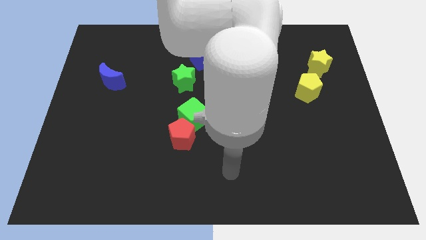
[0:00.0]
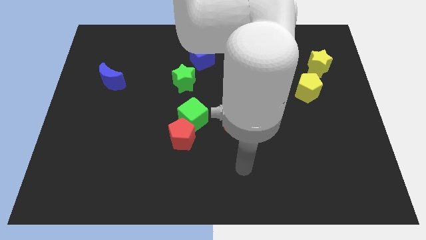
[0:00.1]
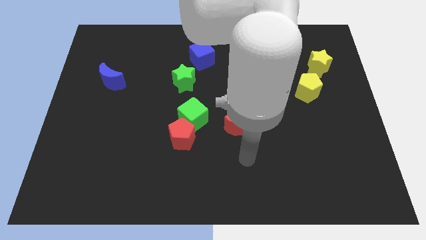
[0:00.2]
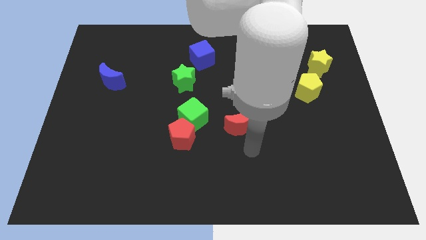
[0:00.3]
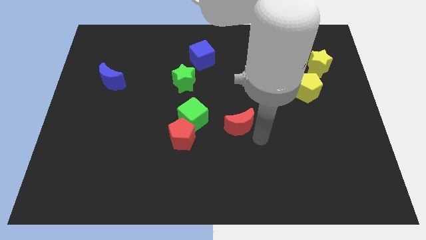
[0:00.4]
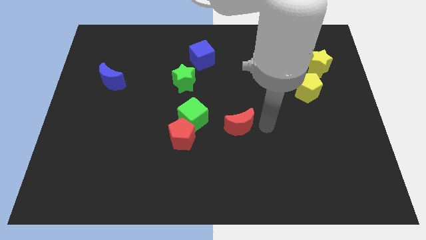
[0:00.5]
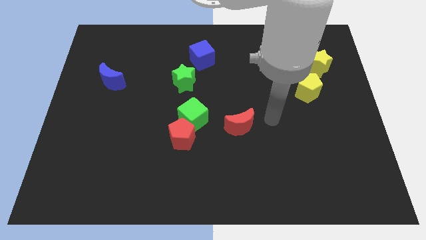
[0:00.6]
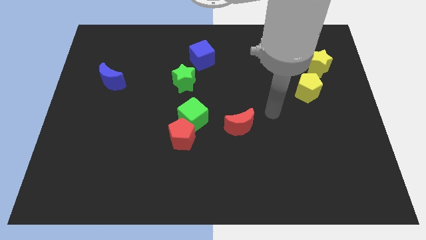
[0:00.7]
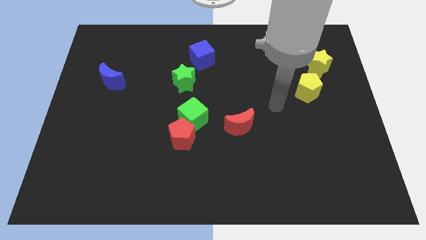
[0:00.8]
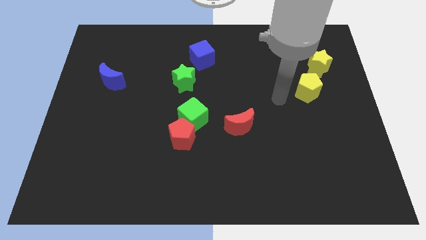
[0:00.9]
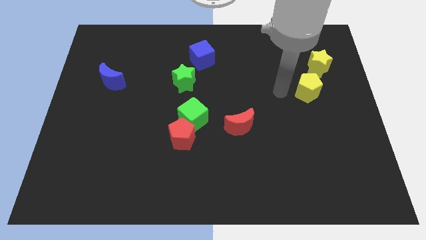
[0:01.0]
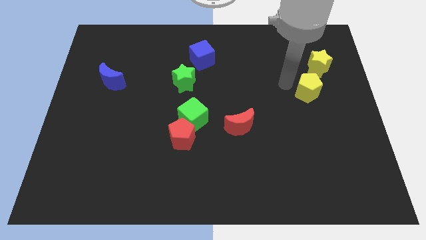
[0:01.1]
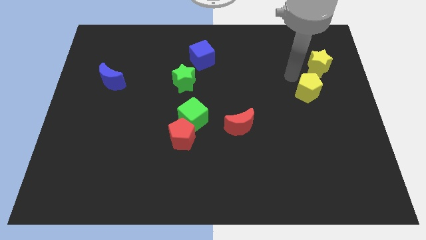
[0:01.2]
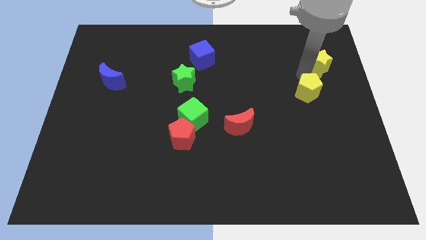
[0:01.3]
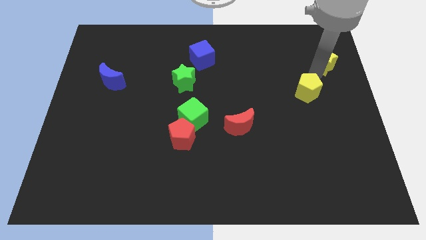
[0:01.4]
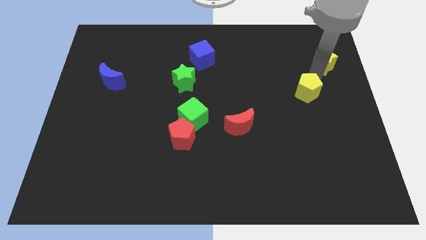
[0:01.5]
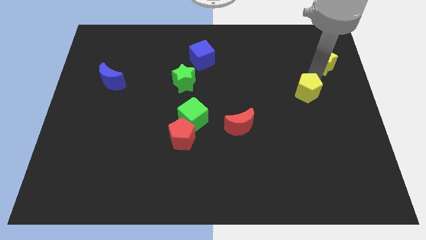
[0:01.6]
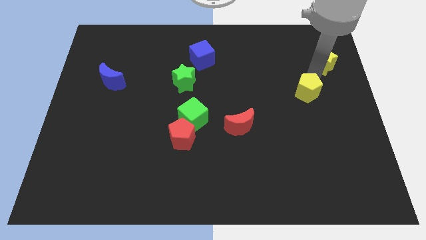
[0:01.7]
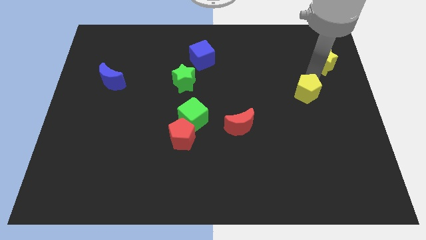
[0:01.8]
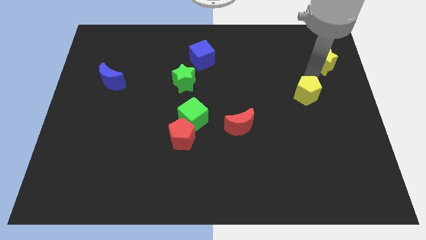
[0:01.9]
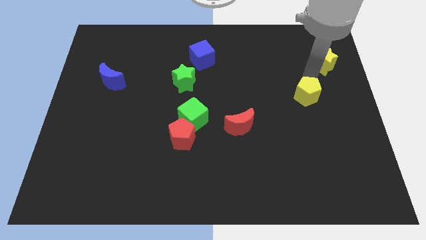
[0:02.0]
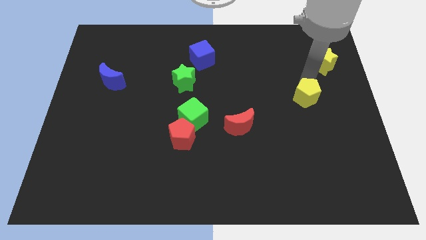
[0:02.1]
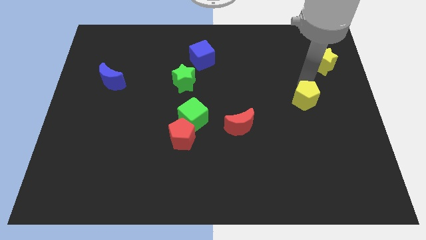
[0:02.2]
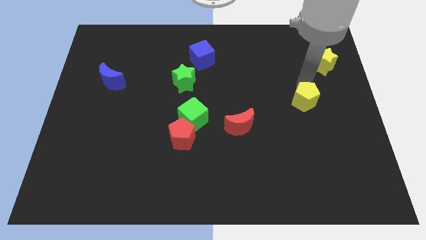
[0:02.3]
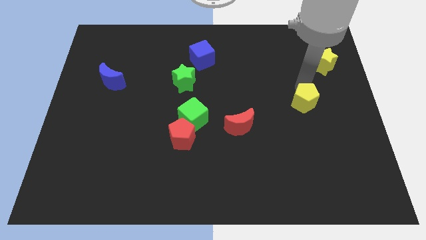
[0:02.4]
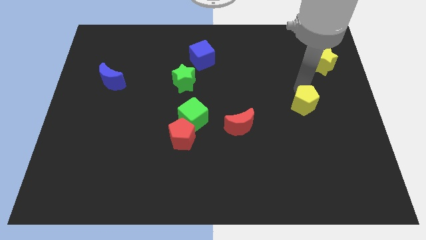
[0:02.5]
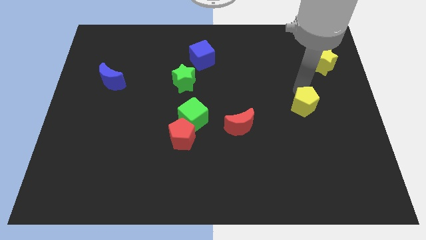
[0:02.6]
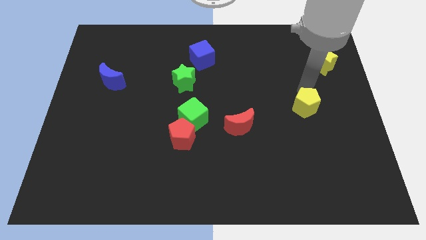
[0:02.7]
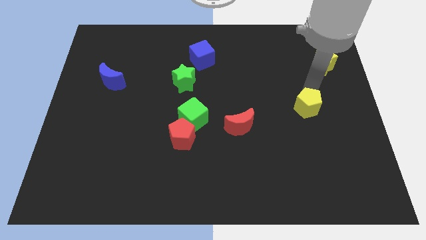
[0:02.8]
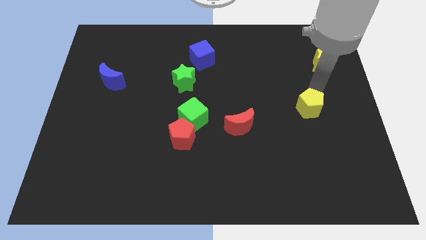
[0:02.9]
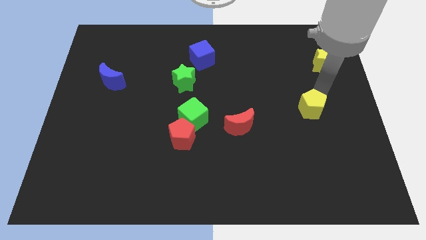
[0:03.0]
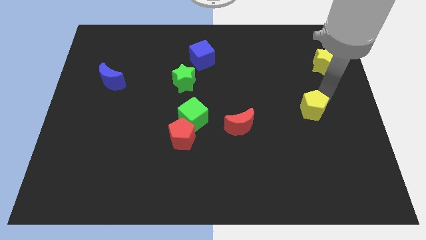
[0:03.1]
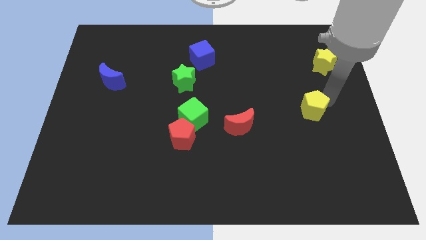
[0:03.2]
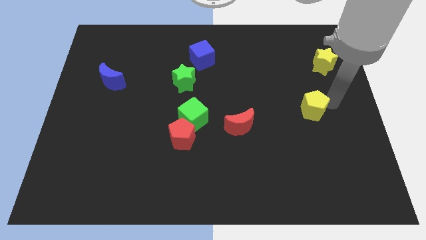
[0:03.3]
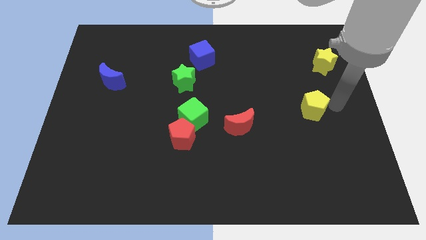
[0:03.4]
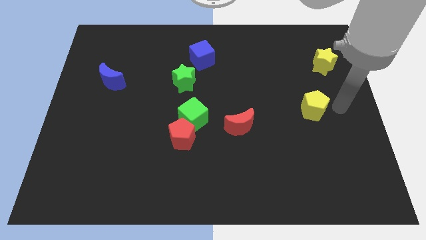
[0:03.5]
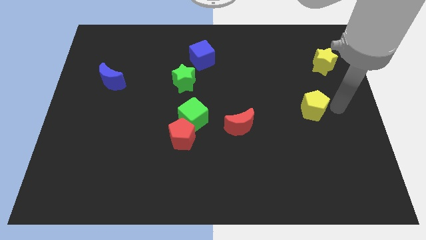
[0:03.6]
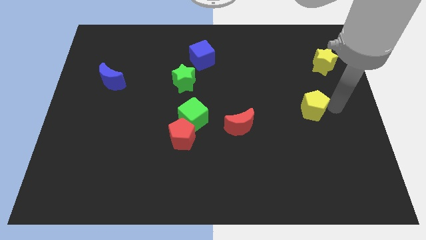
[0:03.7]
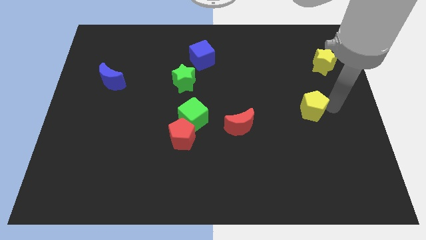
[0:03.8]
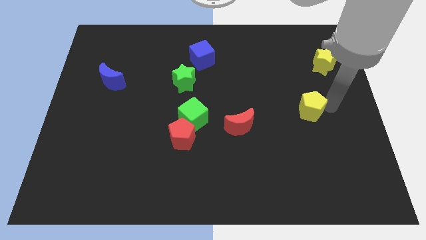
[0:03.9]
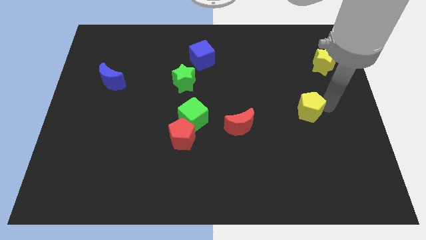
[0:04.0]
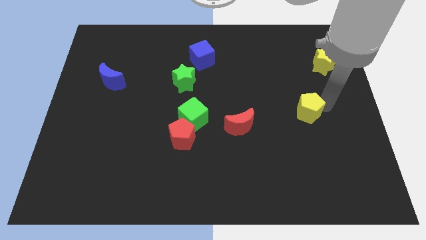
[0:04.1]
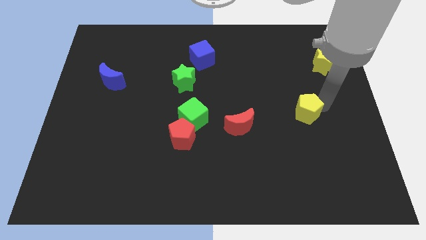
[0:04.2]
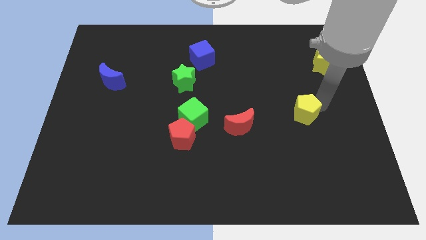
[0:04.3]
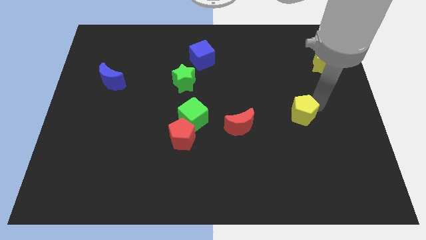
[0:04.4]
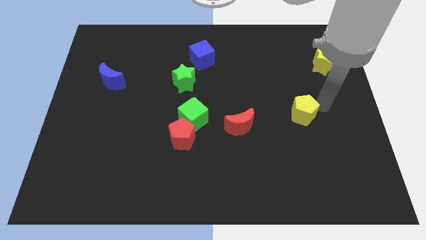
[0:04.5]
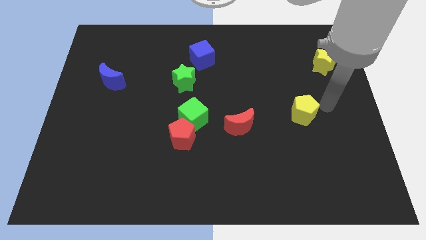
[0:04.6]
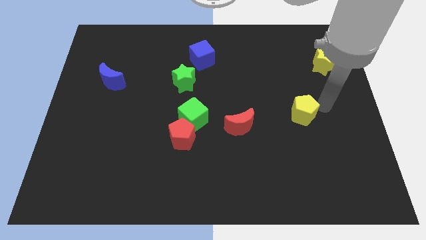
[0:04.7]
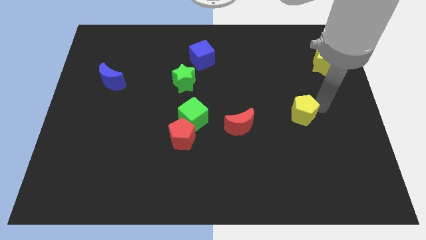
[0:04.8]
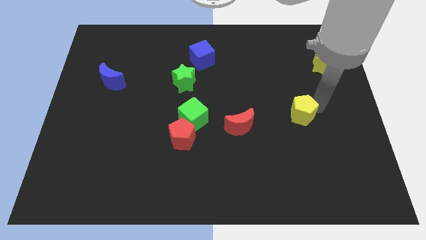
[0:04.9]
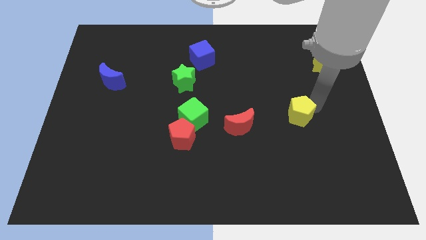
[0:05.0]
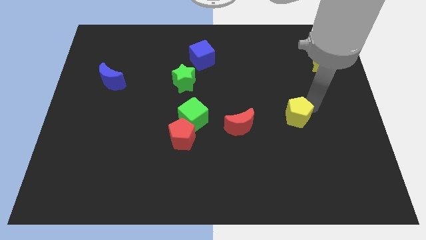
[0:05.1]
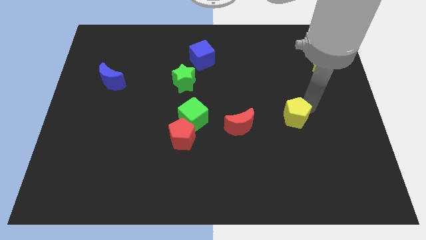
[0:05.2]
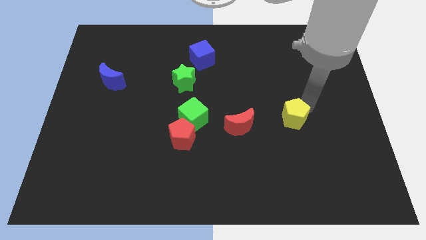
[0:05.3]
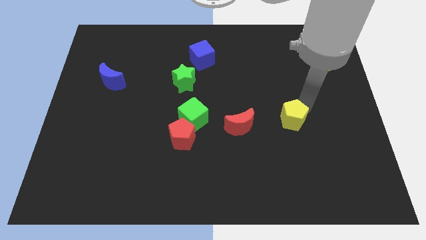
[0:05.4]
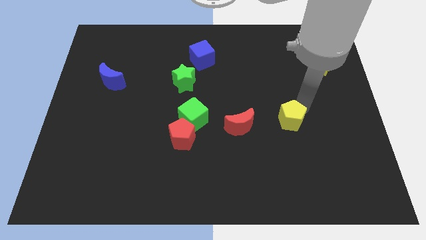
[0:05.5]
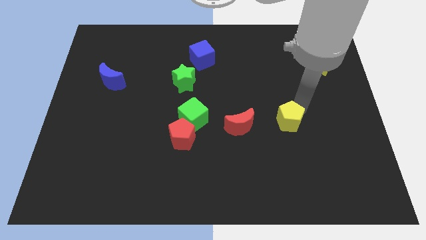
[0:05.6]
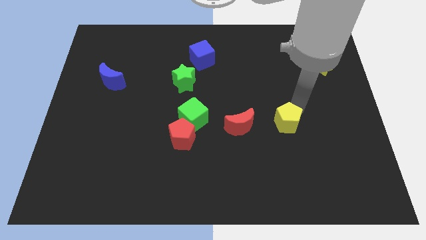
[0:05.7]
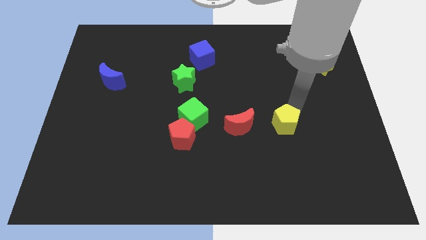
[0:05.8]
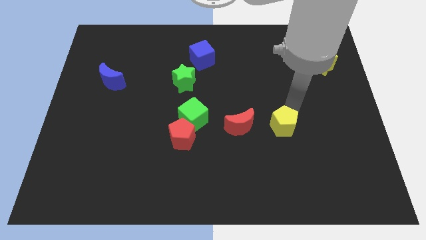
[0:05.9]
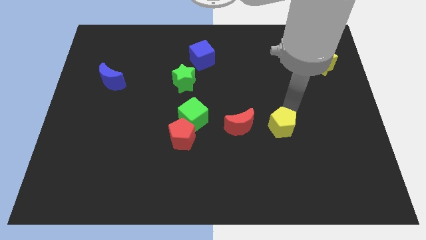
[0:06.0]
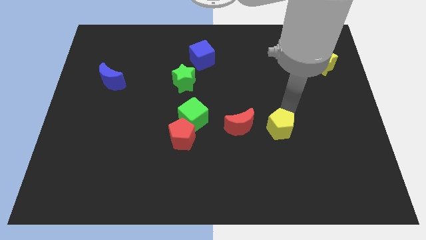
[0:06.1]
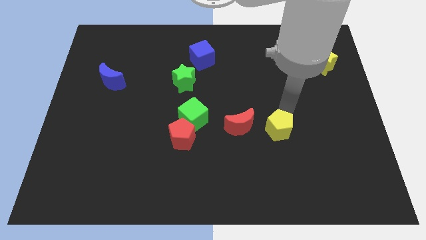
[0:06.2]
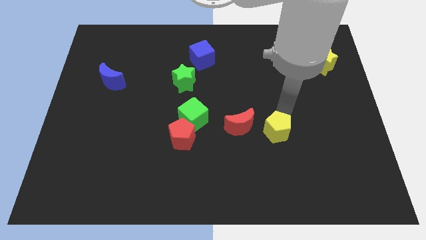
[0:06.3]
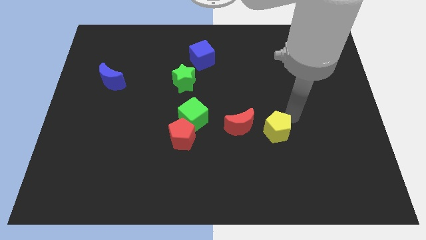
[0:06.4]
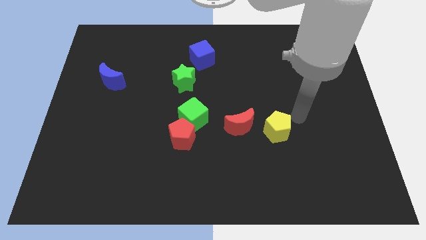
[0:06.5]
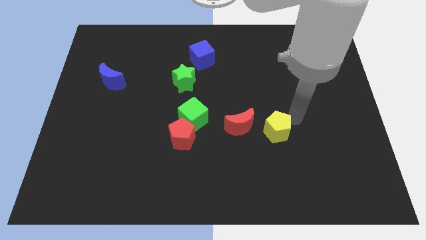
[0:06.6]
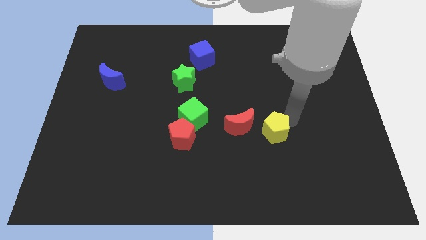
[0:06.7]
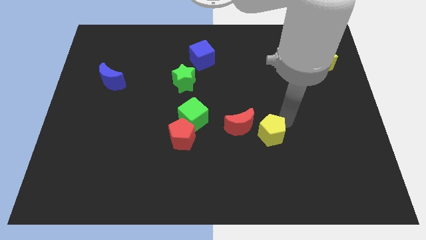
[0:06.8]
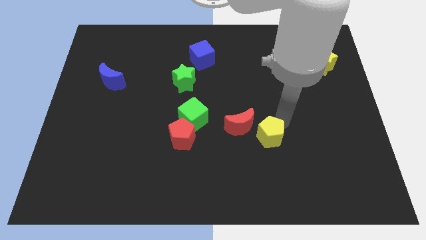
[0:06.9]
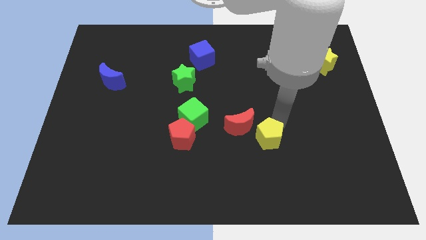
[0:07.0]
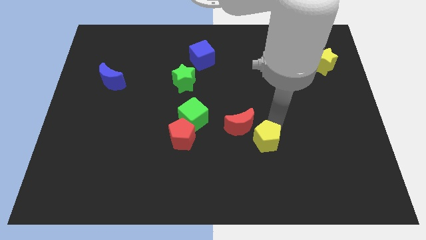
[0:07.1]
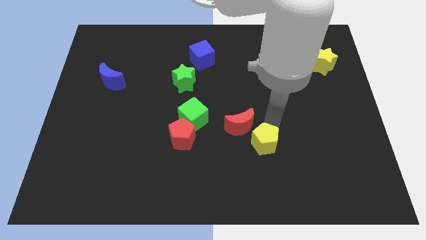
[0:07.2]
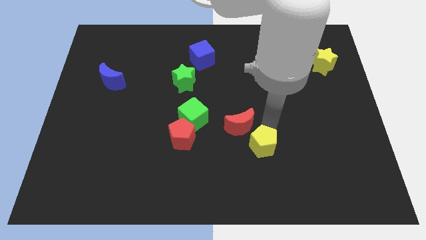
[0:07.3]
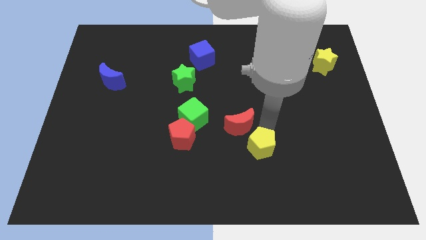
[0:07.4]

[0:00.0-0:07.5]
move the yellow pentagon down and then left

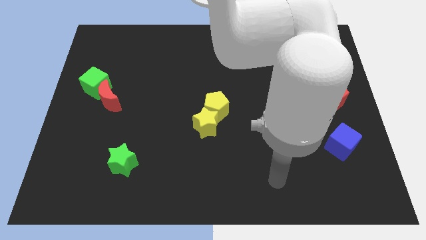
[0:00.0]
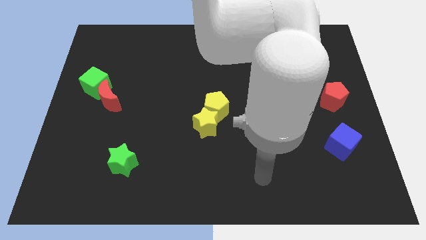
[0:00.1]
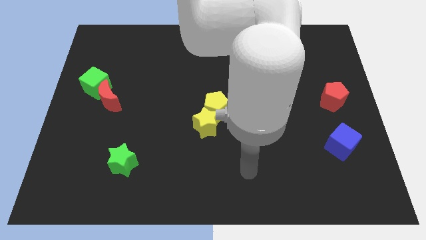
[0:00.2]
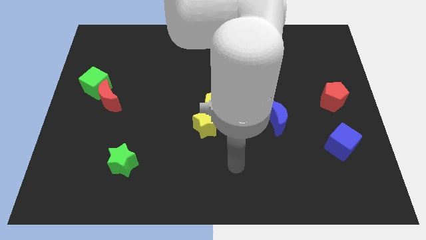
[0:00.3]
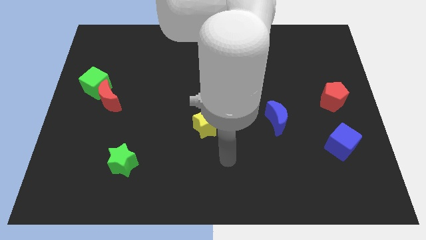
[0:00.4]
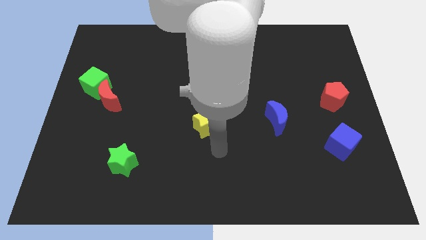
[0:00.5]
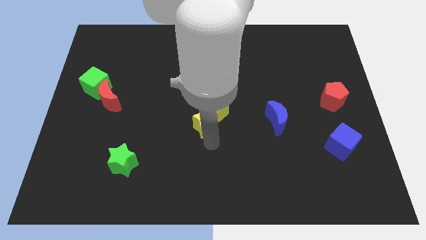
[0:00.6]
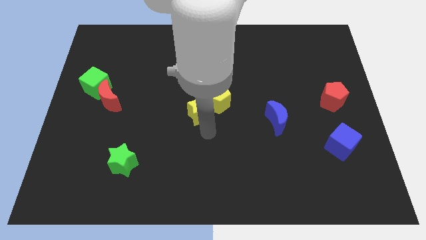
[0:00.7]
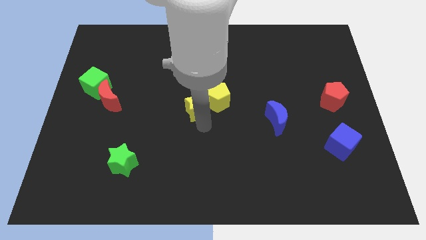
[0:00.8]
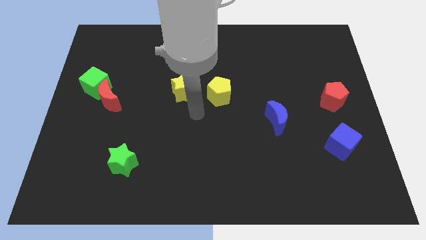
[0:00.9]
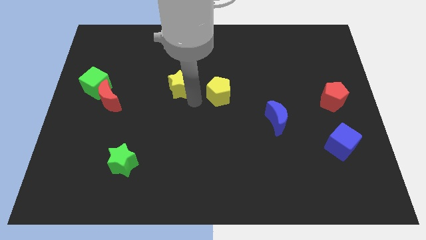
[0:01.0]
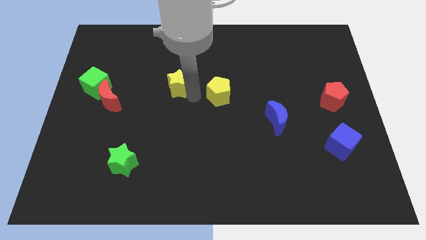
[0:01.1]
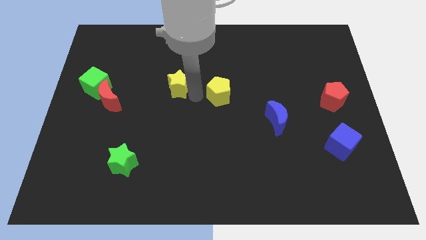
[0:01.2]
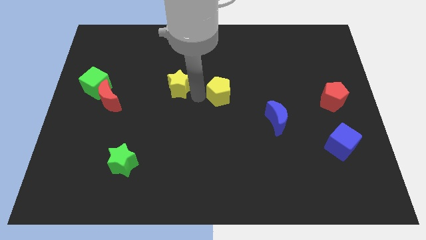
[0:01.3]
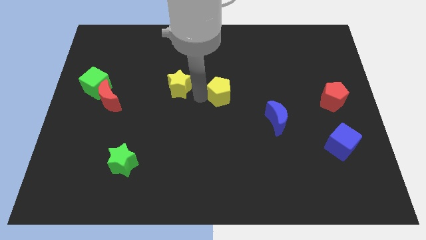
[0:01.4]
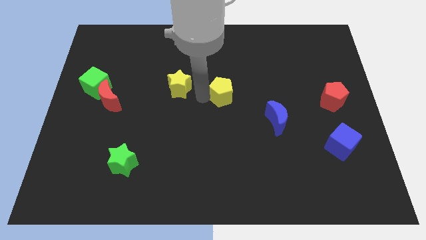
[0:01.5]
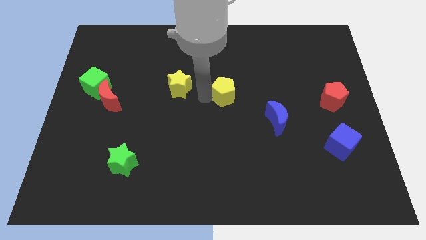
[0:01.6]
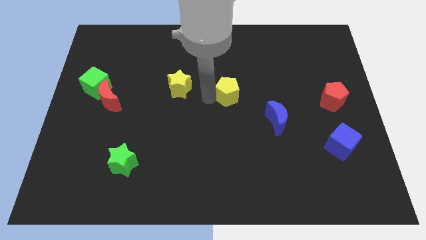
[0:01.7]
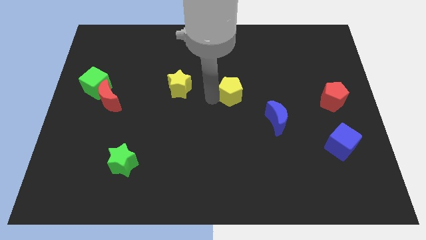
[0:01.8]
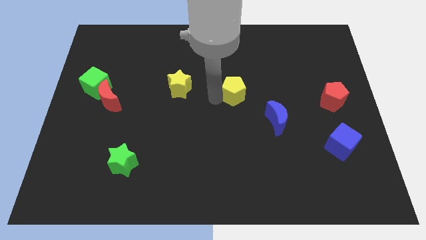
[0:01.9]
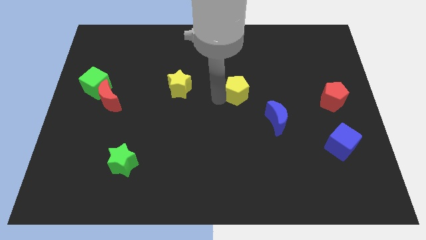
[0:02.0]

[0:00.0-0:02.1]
slightly move the yellow pentagon up and right diagonally
